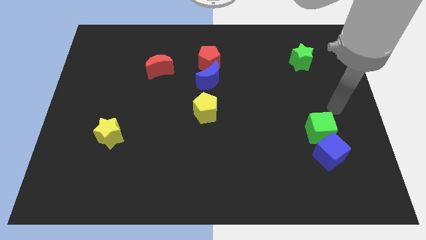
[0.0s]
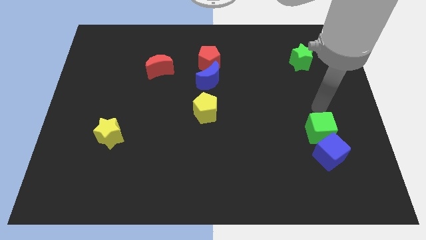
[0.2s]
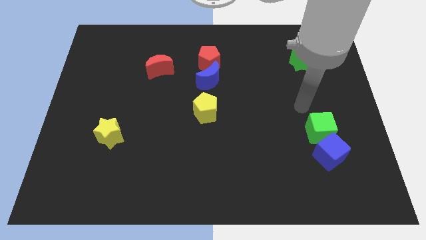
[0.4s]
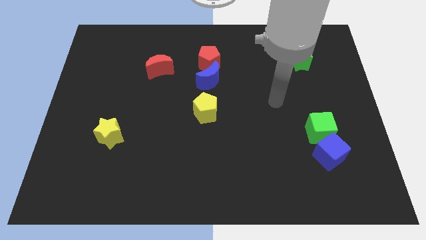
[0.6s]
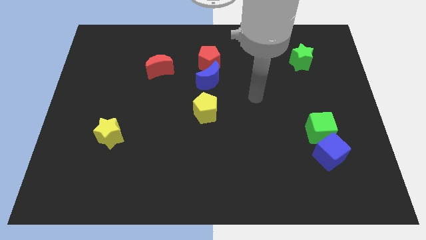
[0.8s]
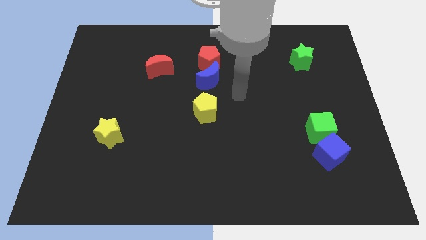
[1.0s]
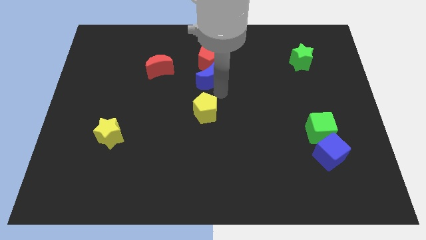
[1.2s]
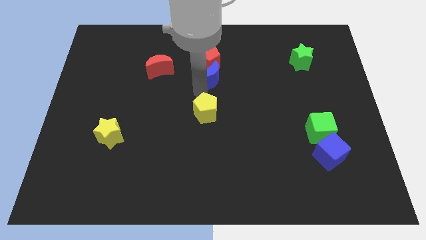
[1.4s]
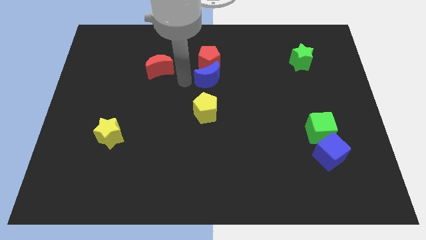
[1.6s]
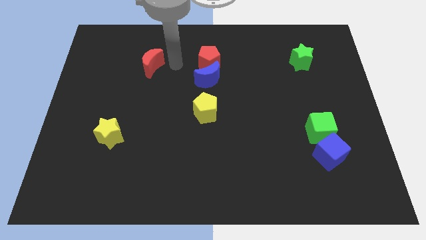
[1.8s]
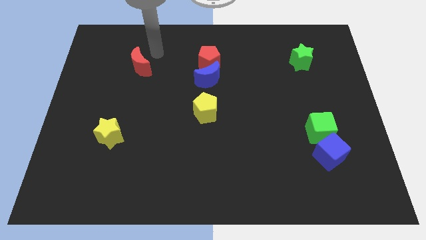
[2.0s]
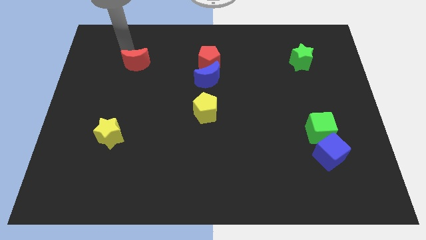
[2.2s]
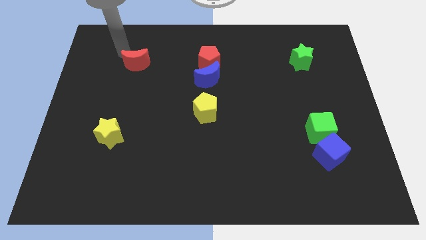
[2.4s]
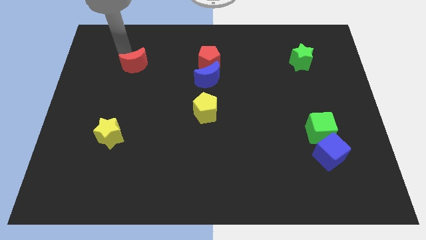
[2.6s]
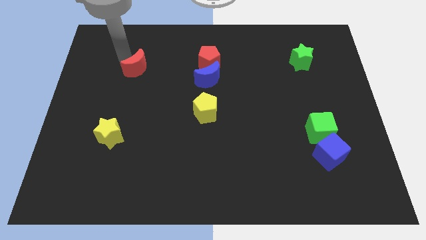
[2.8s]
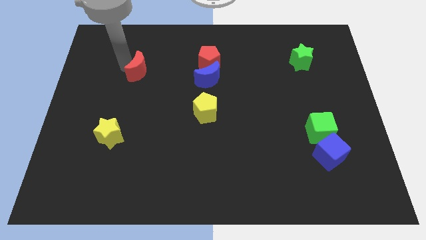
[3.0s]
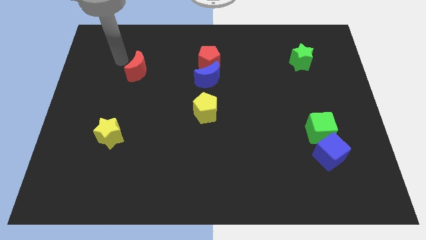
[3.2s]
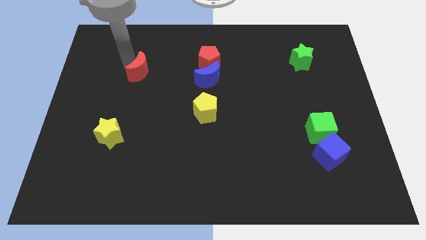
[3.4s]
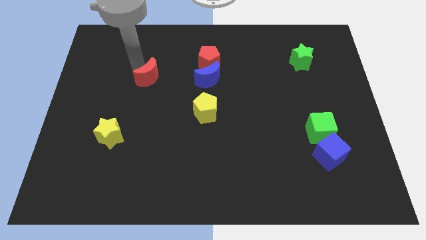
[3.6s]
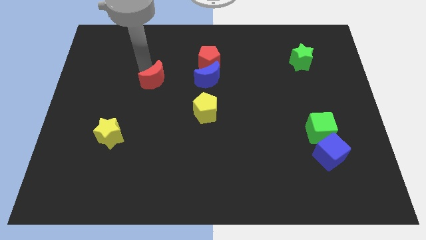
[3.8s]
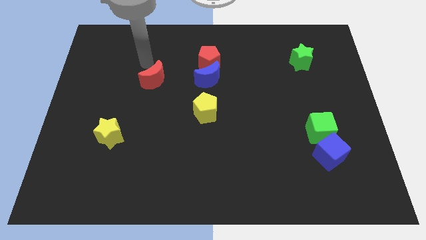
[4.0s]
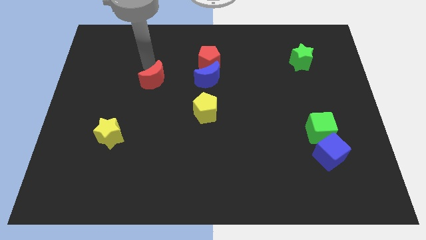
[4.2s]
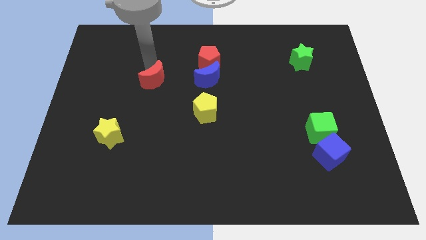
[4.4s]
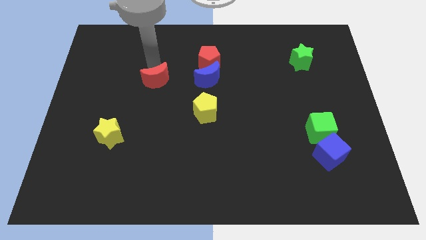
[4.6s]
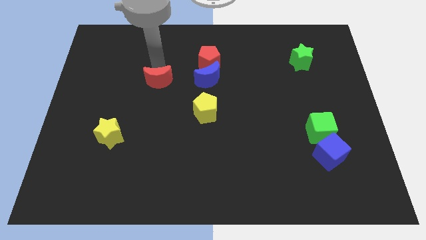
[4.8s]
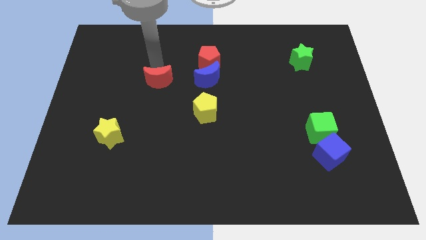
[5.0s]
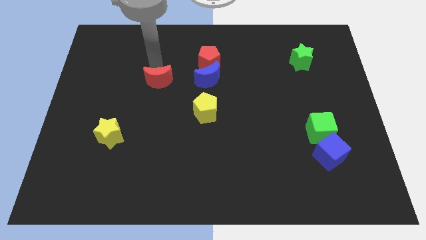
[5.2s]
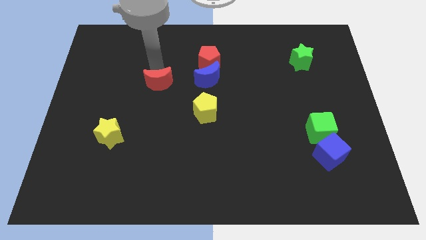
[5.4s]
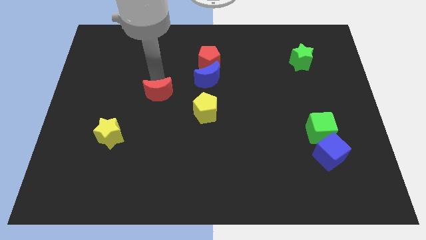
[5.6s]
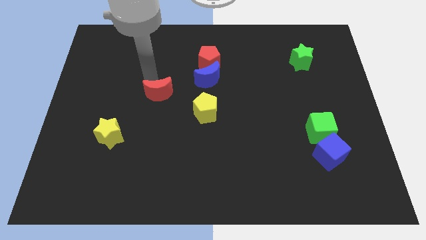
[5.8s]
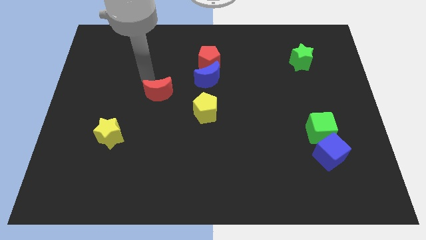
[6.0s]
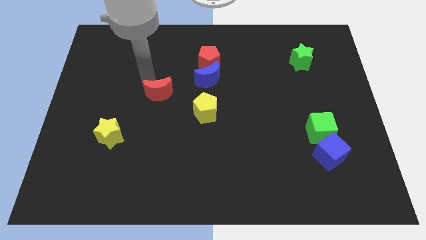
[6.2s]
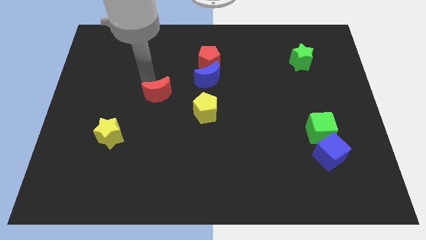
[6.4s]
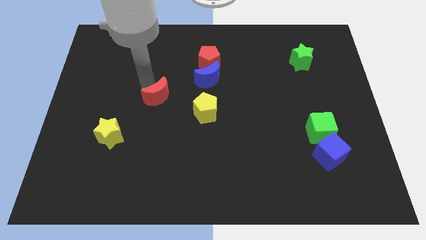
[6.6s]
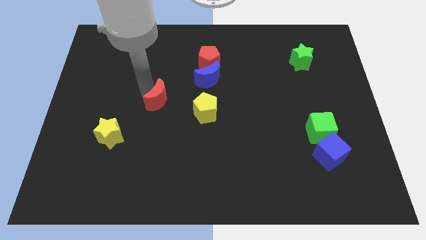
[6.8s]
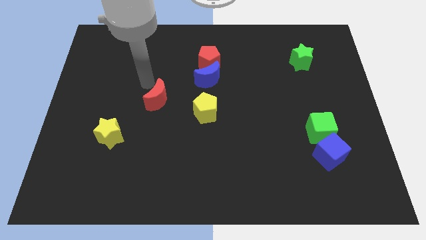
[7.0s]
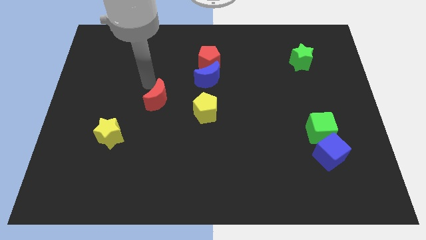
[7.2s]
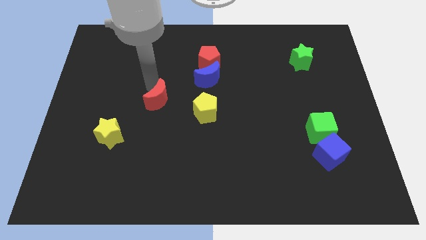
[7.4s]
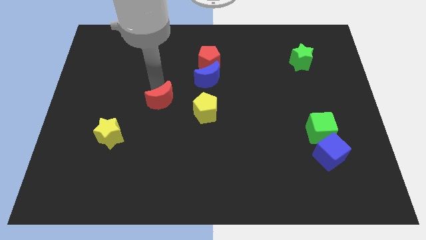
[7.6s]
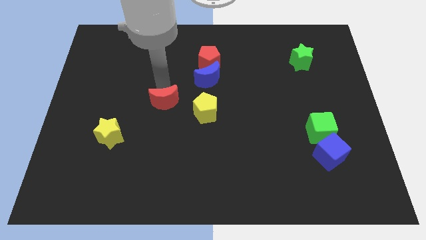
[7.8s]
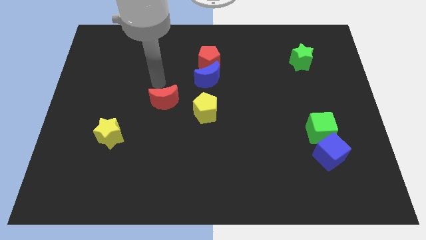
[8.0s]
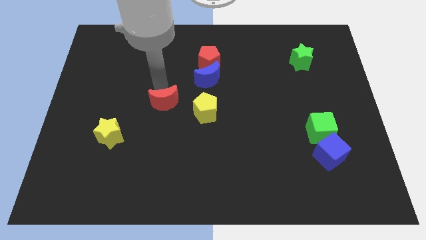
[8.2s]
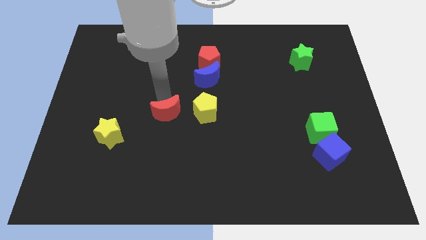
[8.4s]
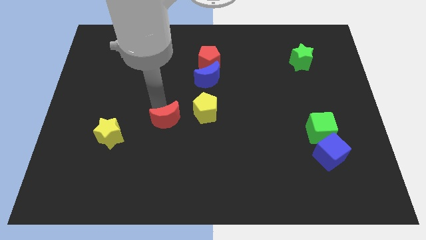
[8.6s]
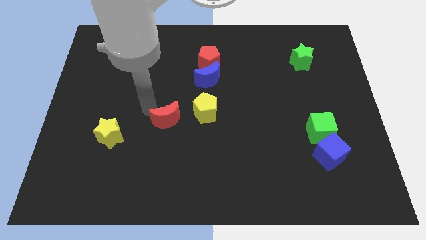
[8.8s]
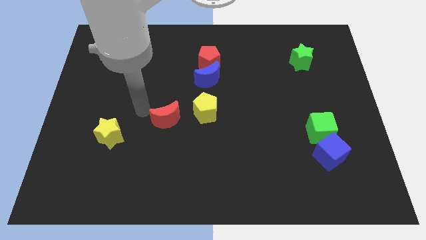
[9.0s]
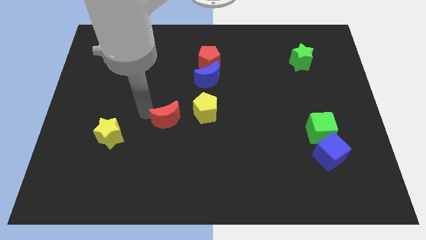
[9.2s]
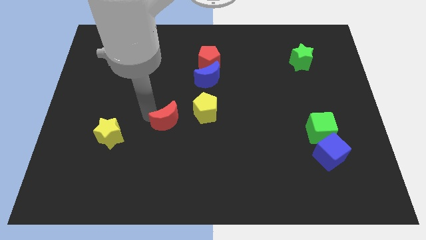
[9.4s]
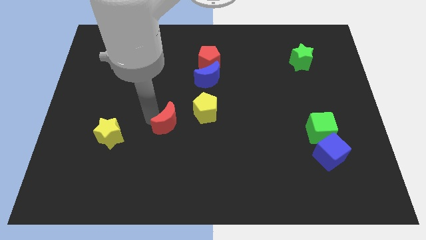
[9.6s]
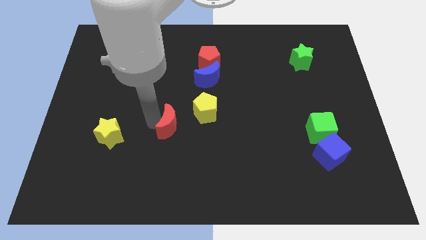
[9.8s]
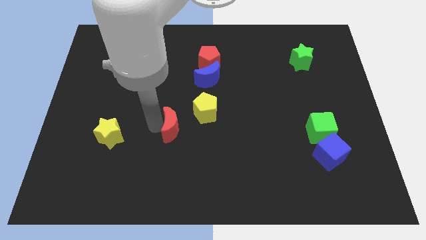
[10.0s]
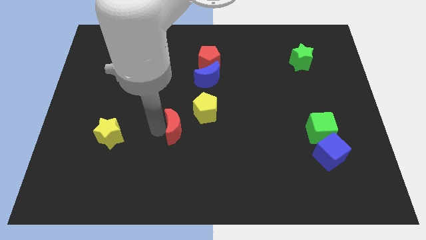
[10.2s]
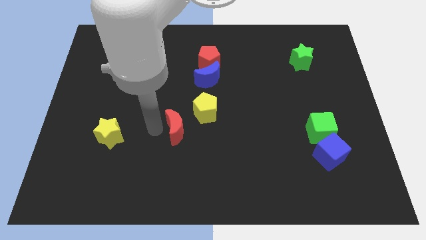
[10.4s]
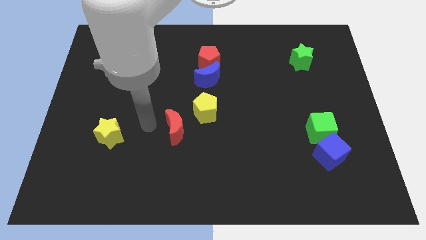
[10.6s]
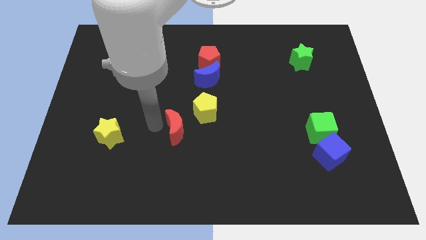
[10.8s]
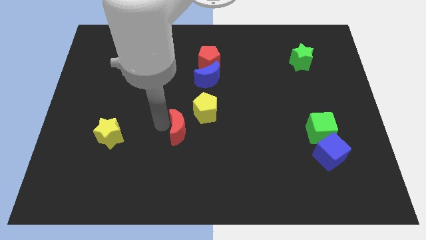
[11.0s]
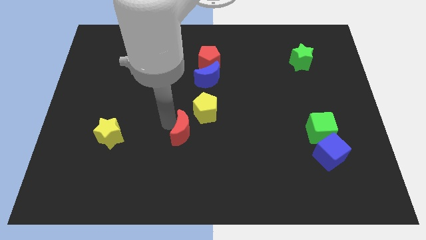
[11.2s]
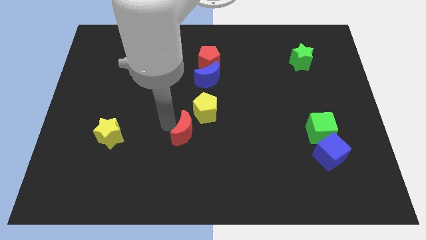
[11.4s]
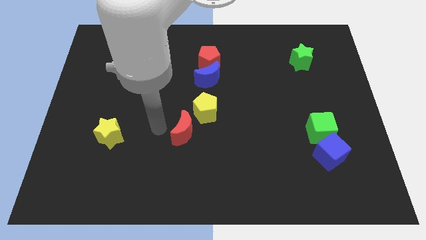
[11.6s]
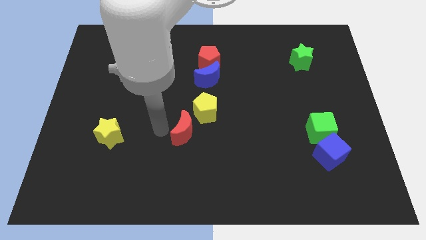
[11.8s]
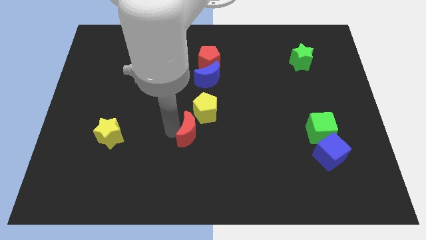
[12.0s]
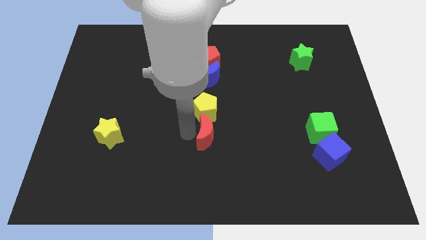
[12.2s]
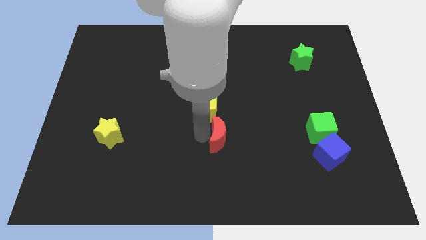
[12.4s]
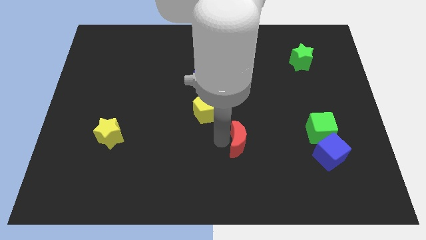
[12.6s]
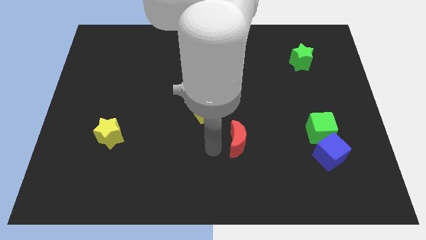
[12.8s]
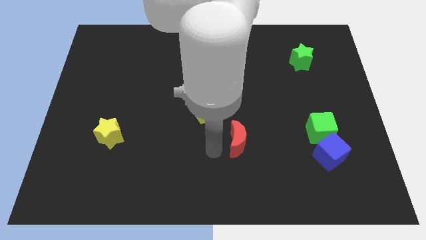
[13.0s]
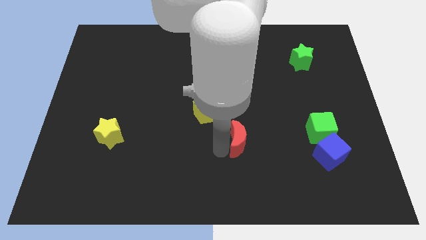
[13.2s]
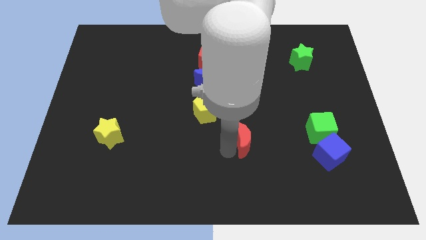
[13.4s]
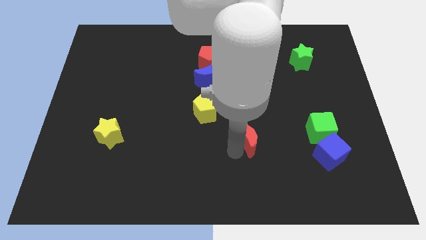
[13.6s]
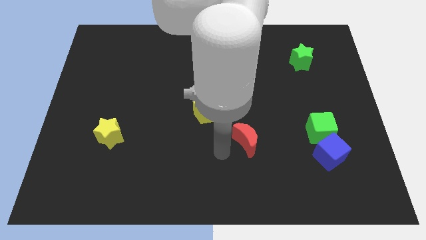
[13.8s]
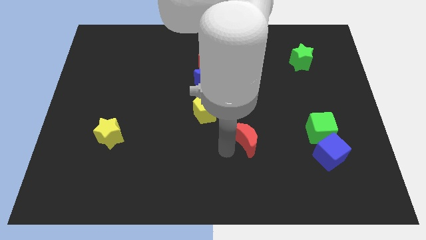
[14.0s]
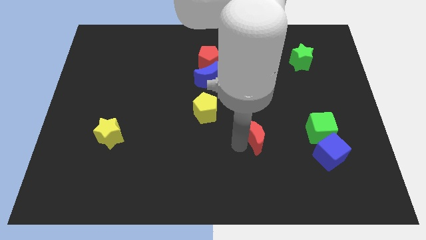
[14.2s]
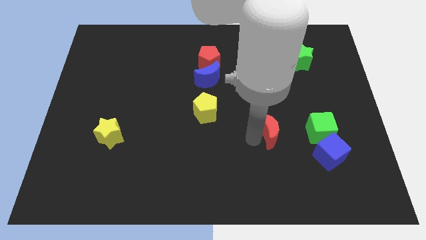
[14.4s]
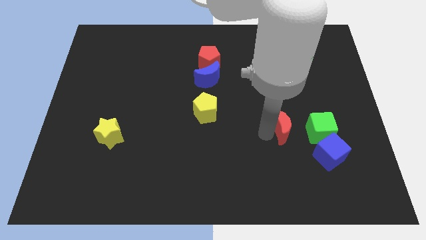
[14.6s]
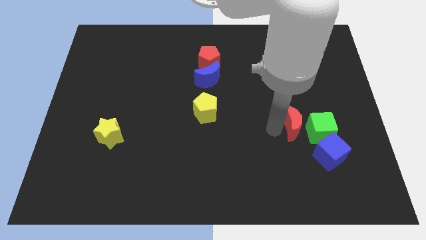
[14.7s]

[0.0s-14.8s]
slide the red moon towards the green cube
